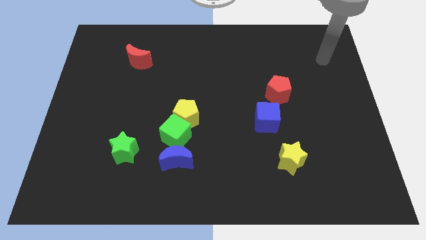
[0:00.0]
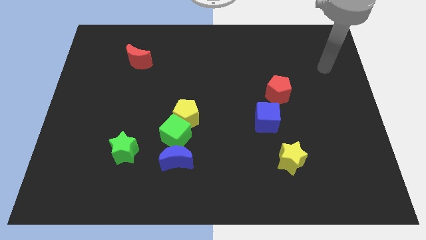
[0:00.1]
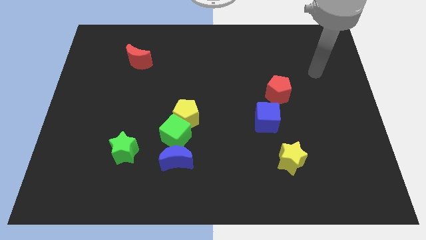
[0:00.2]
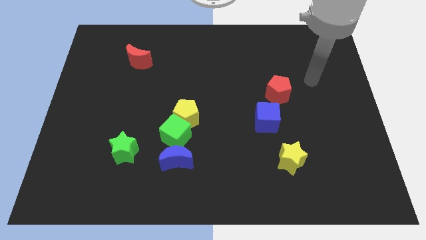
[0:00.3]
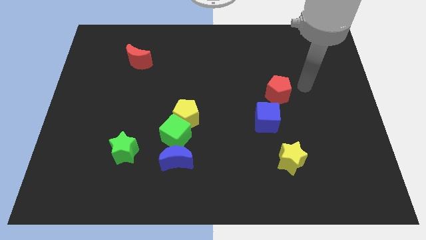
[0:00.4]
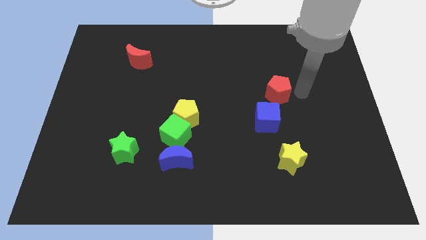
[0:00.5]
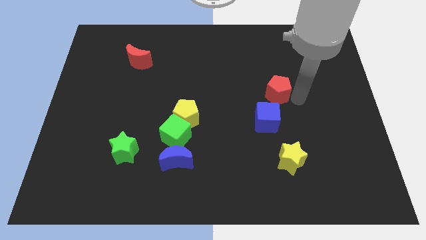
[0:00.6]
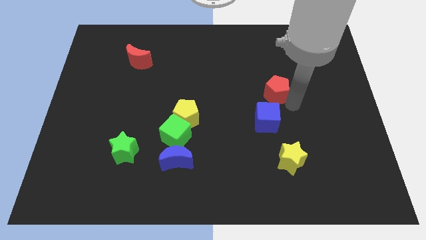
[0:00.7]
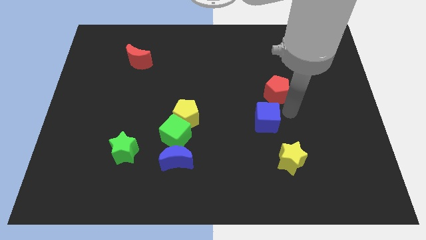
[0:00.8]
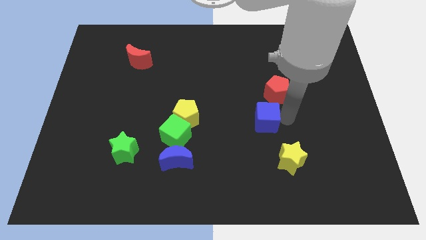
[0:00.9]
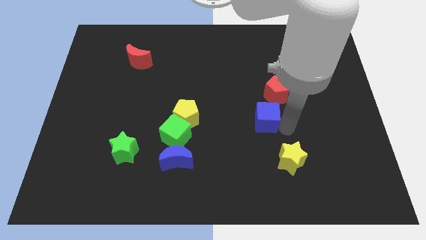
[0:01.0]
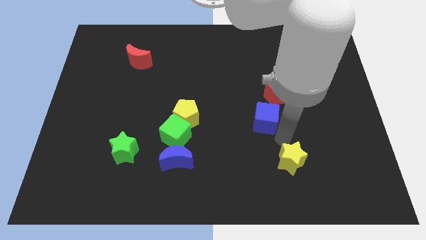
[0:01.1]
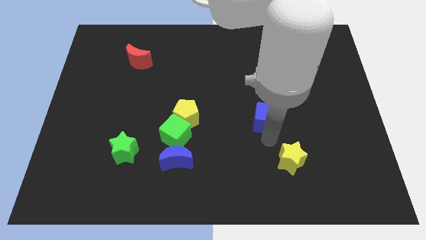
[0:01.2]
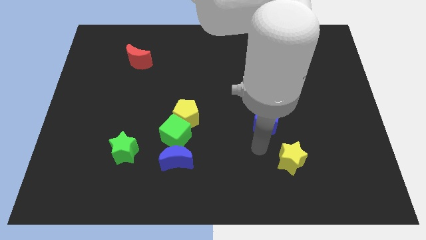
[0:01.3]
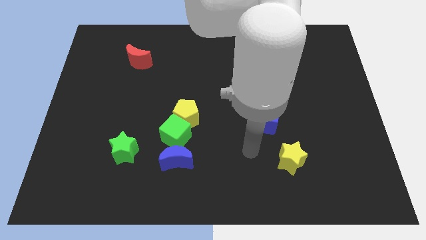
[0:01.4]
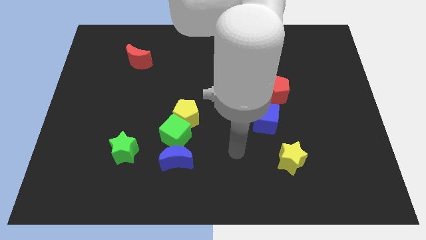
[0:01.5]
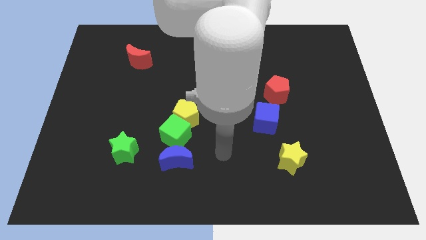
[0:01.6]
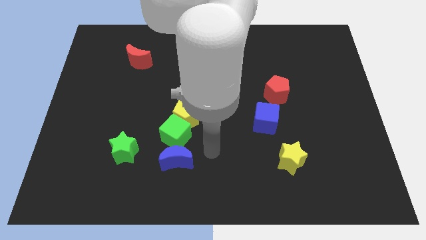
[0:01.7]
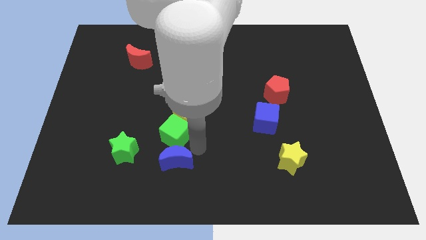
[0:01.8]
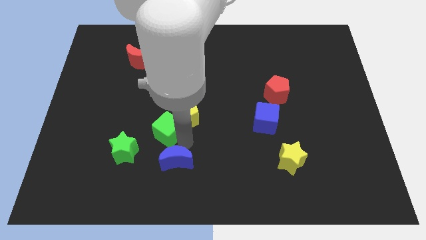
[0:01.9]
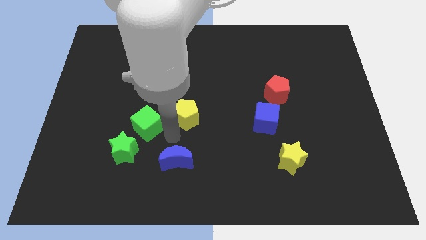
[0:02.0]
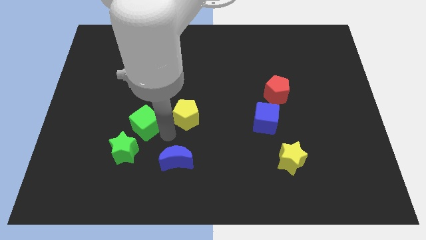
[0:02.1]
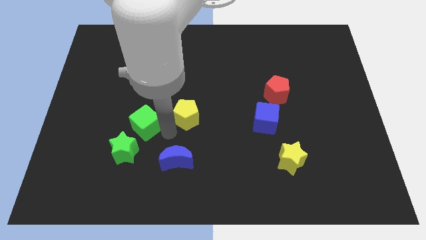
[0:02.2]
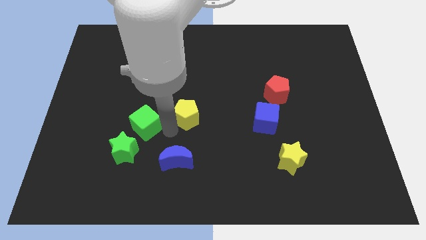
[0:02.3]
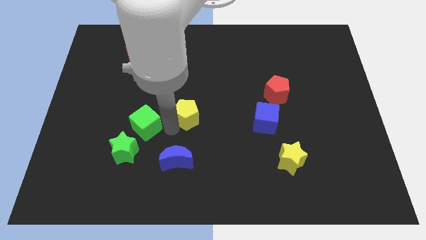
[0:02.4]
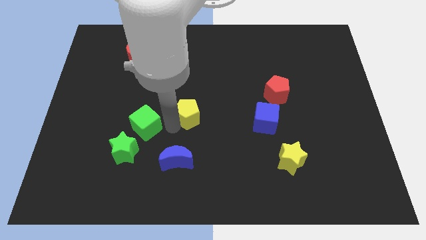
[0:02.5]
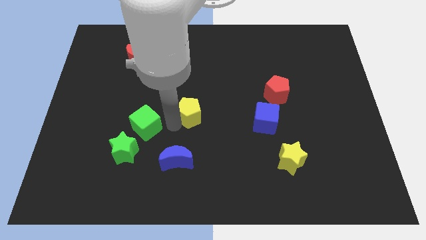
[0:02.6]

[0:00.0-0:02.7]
separate the yellow pentagon from the green cube

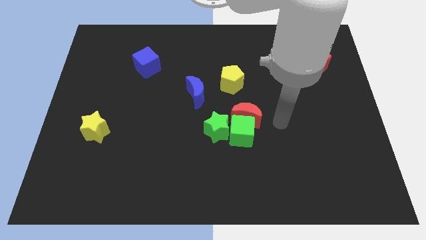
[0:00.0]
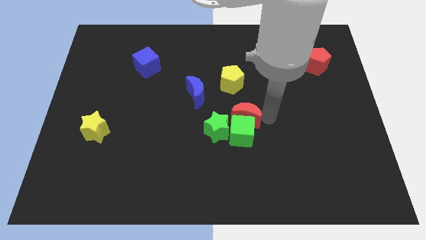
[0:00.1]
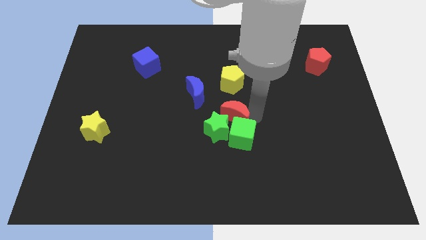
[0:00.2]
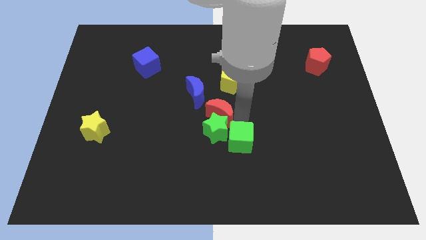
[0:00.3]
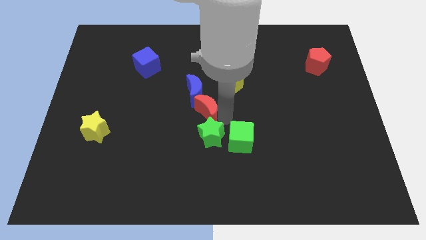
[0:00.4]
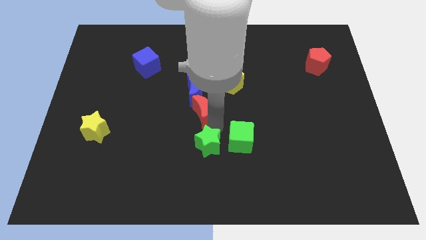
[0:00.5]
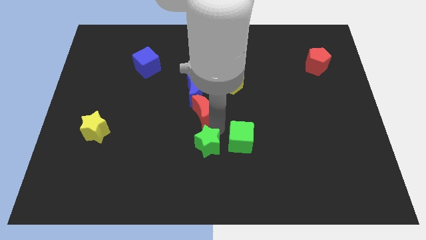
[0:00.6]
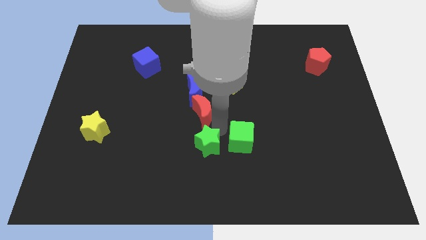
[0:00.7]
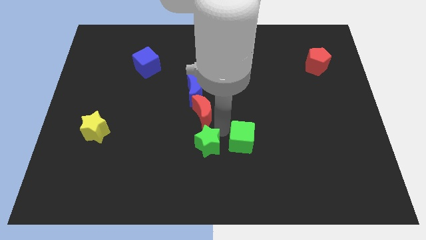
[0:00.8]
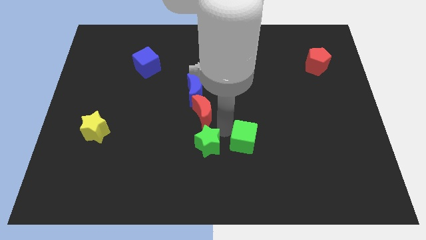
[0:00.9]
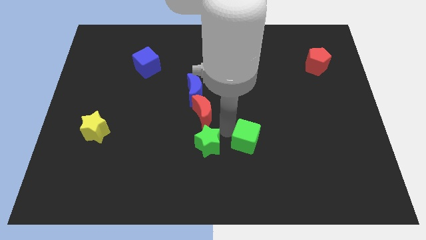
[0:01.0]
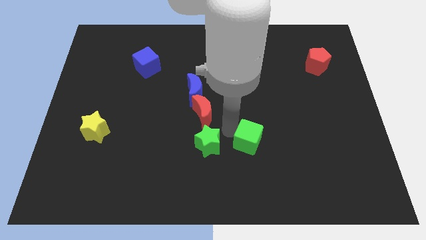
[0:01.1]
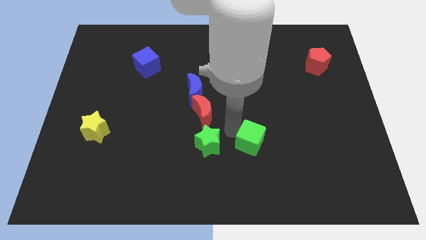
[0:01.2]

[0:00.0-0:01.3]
move the green cube away from the red moon and green star

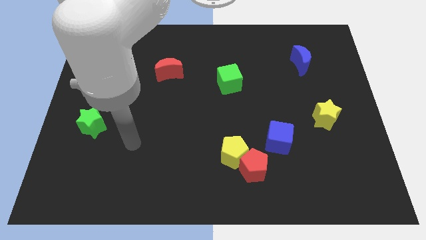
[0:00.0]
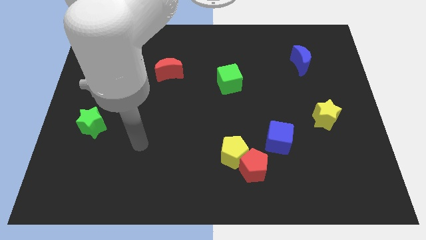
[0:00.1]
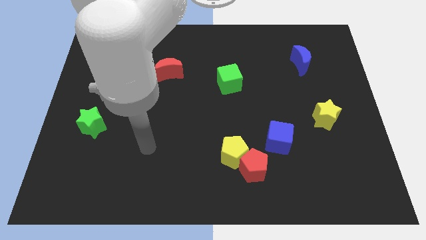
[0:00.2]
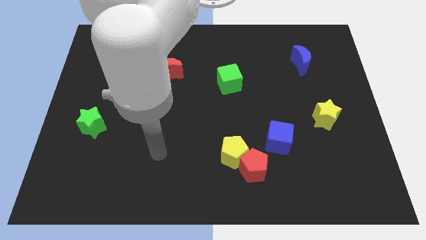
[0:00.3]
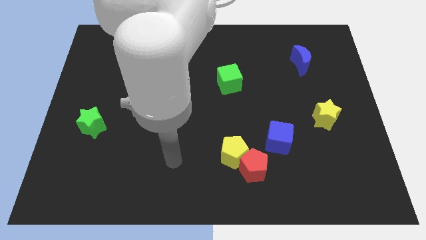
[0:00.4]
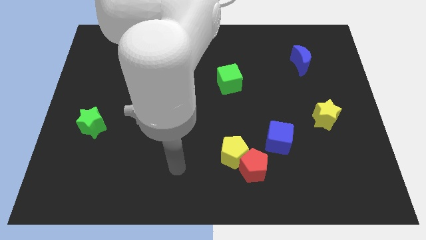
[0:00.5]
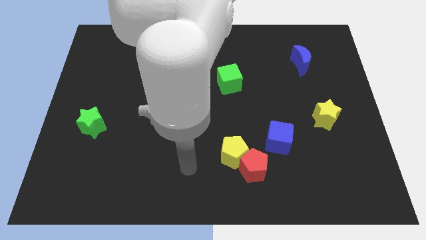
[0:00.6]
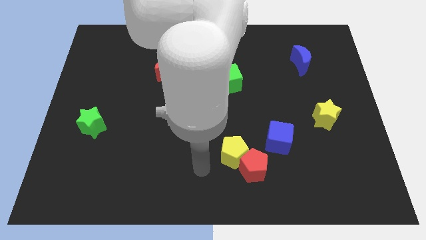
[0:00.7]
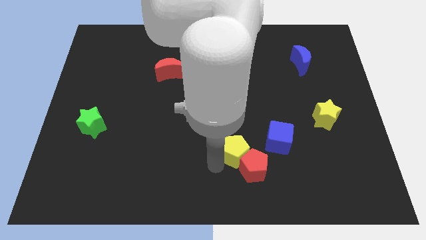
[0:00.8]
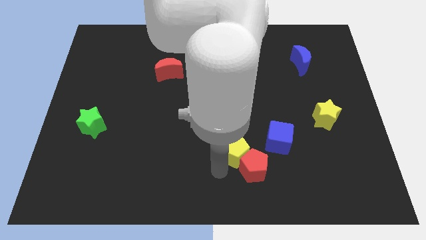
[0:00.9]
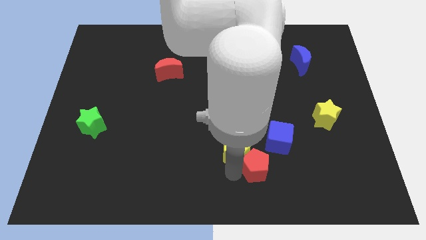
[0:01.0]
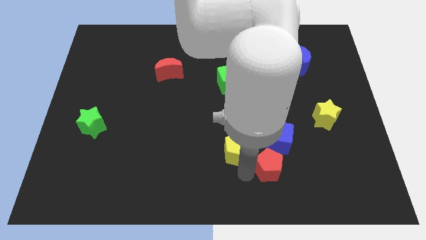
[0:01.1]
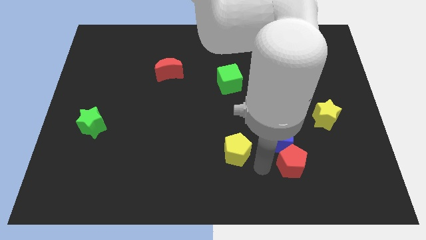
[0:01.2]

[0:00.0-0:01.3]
separate the yellow pentagon from the red pentagon

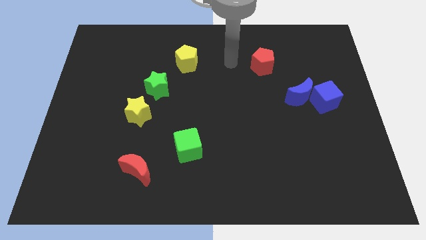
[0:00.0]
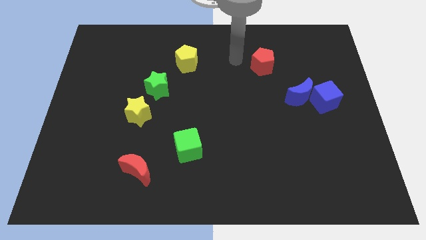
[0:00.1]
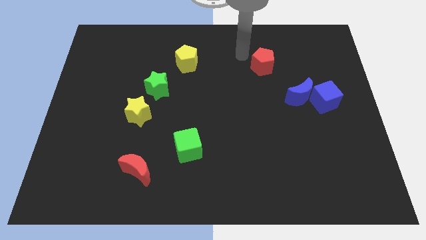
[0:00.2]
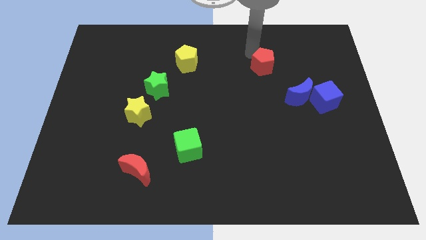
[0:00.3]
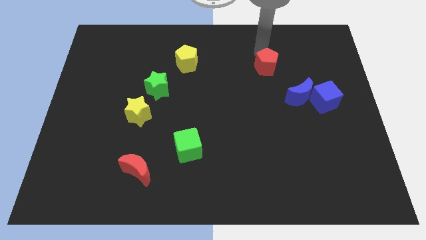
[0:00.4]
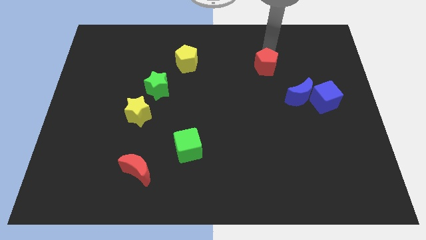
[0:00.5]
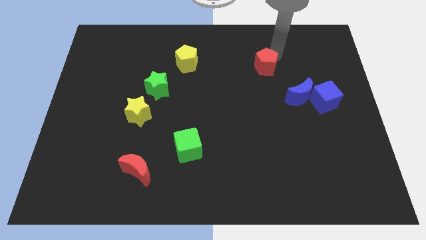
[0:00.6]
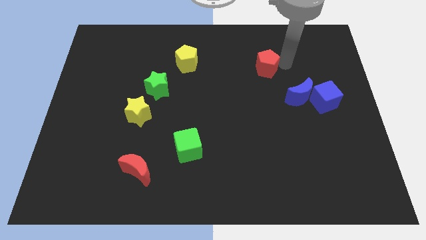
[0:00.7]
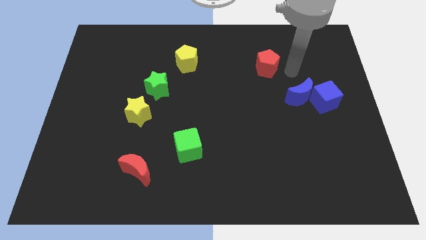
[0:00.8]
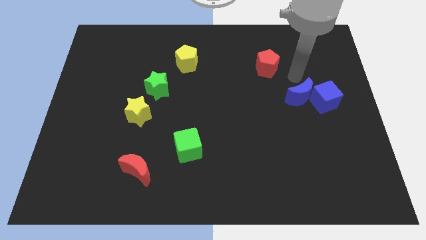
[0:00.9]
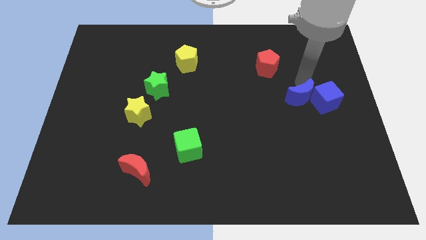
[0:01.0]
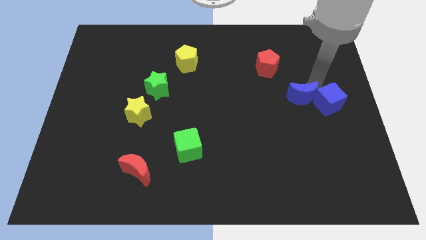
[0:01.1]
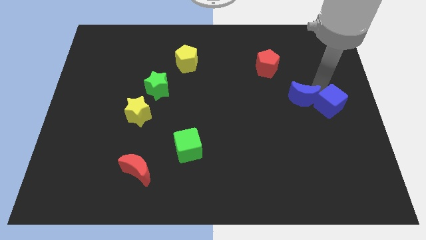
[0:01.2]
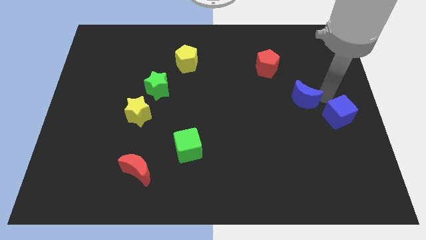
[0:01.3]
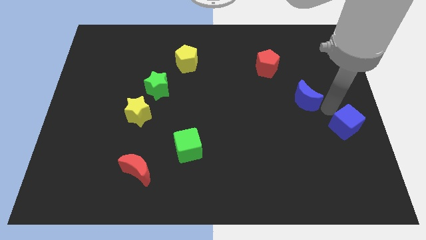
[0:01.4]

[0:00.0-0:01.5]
move the blue moon away from the blue cube

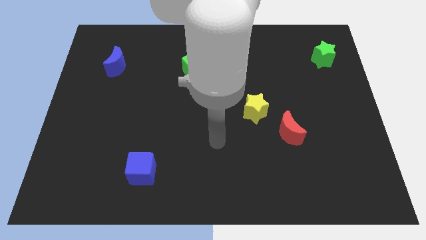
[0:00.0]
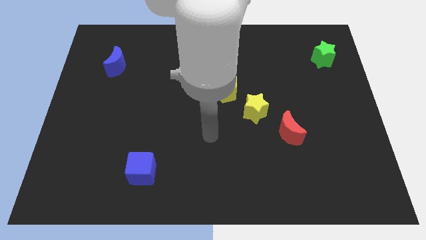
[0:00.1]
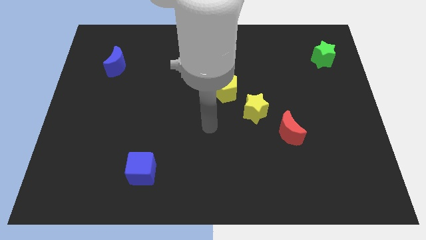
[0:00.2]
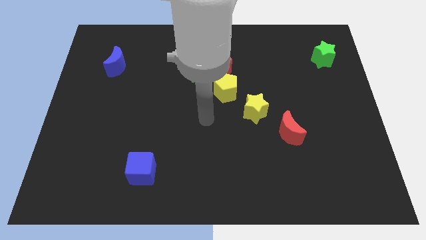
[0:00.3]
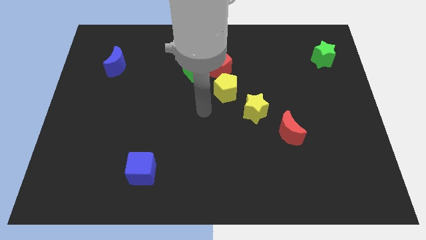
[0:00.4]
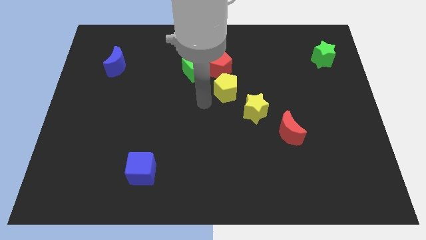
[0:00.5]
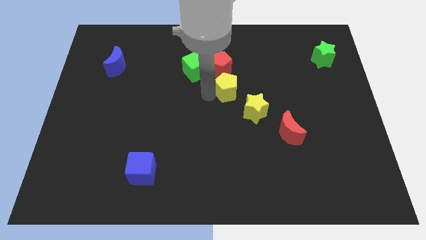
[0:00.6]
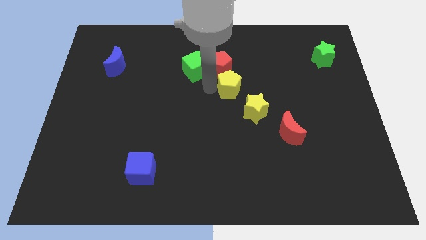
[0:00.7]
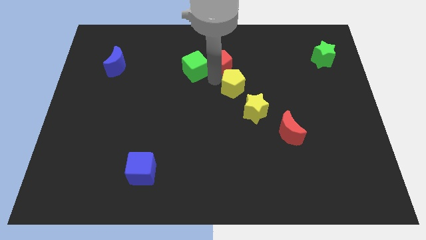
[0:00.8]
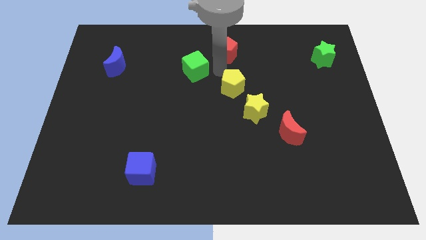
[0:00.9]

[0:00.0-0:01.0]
move the green cube away from the red pentagon

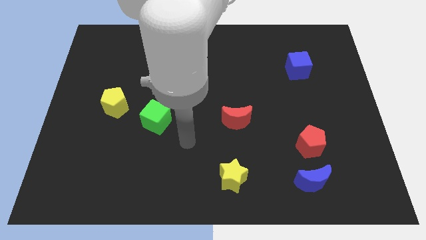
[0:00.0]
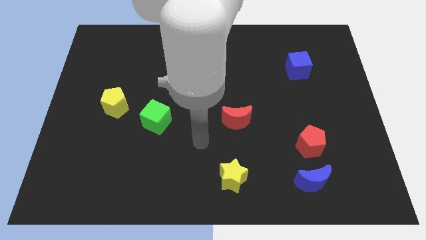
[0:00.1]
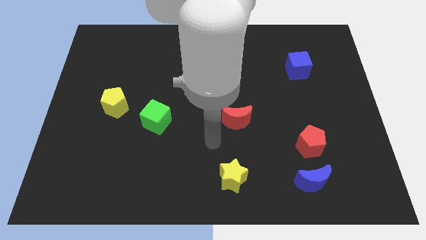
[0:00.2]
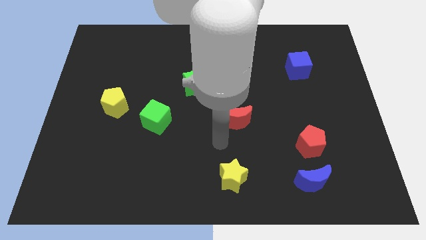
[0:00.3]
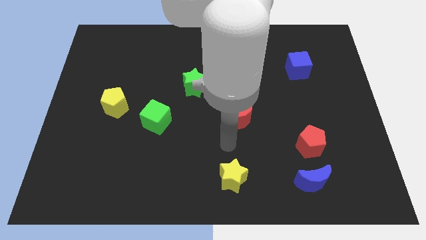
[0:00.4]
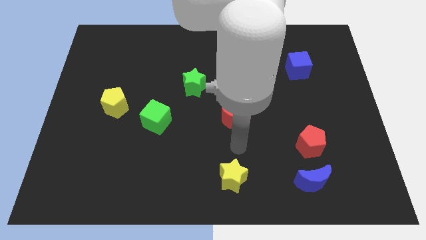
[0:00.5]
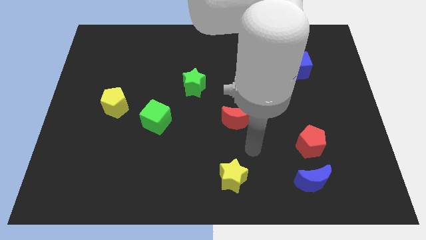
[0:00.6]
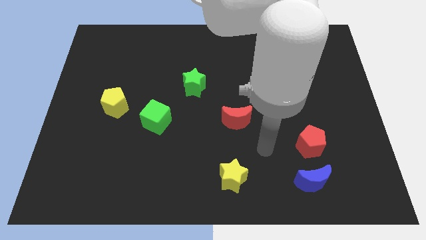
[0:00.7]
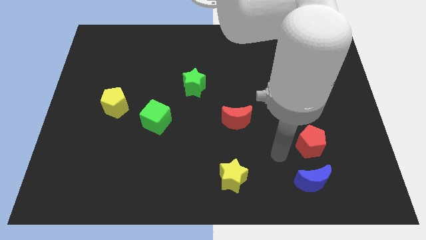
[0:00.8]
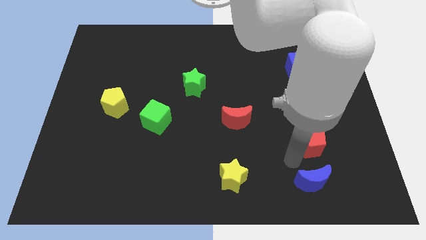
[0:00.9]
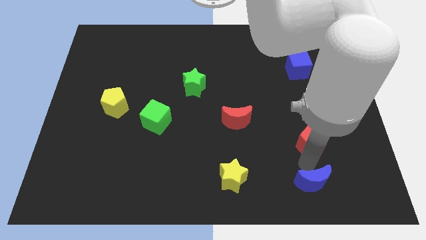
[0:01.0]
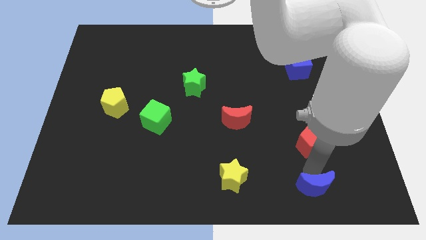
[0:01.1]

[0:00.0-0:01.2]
pull the red pentagon apart from the blue moon

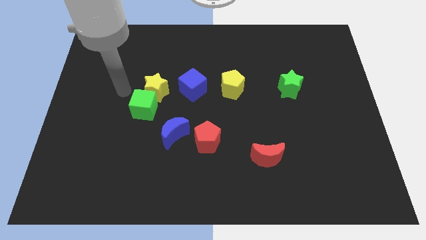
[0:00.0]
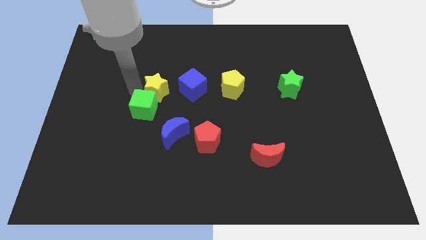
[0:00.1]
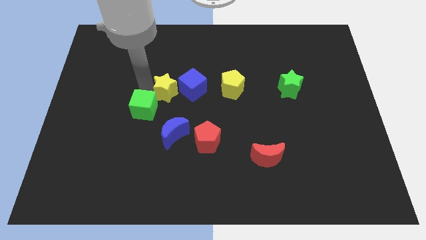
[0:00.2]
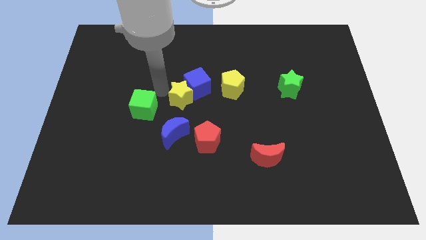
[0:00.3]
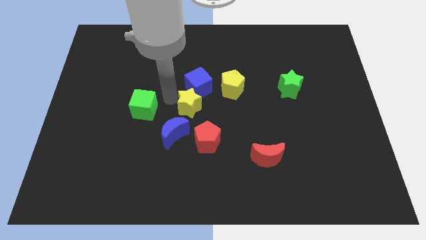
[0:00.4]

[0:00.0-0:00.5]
move the green cube away from the yellow star
